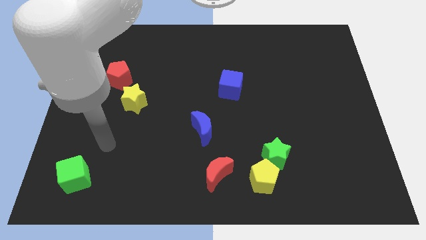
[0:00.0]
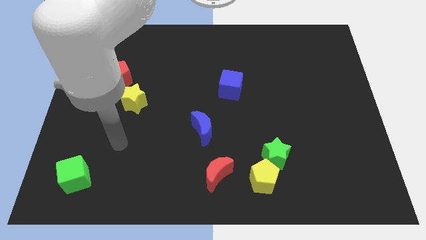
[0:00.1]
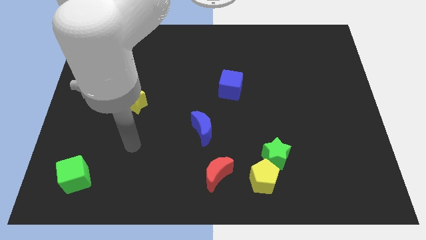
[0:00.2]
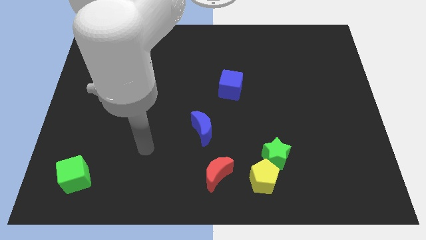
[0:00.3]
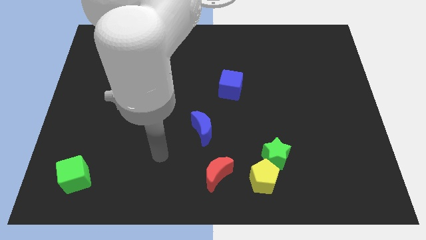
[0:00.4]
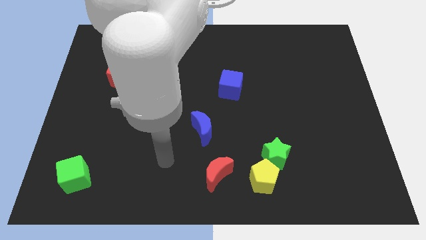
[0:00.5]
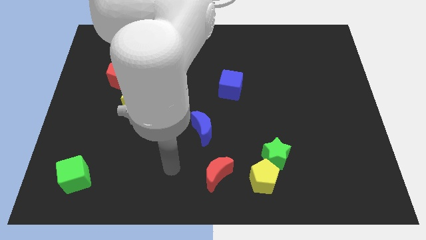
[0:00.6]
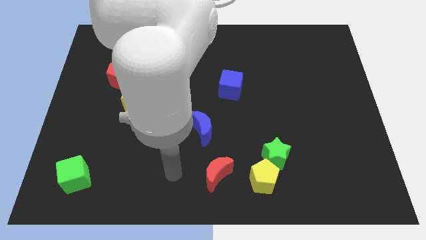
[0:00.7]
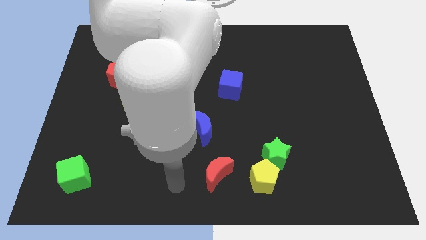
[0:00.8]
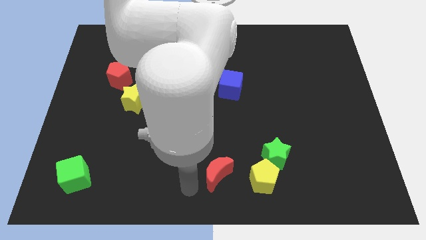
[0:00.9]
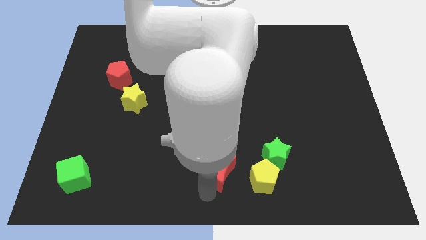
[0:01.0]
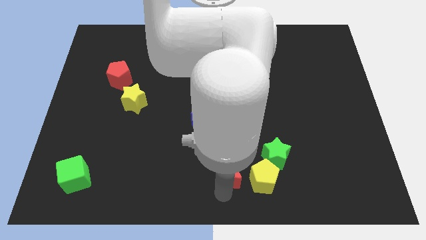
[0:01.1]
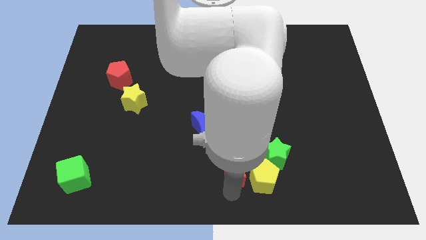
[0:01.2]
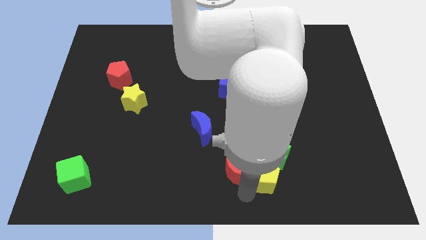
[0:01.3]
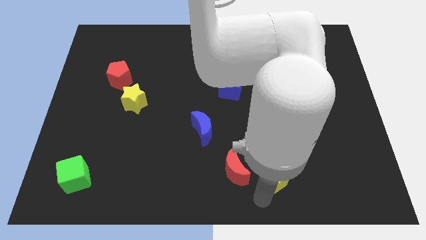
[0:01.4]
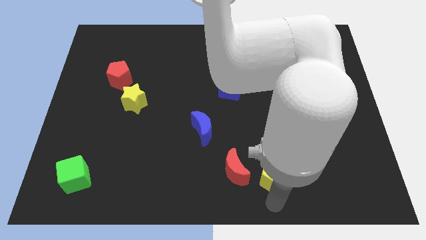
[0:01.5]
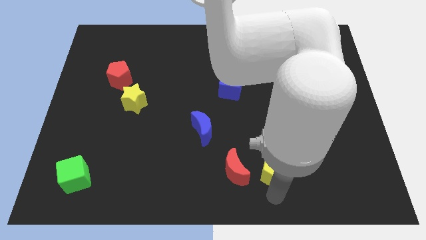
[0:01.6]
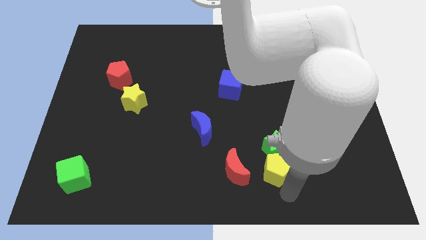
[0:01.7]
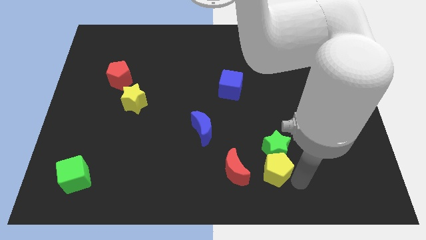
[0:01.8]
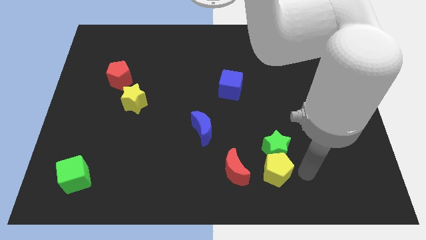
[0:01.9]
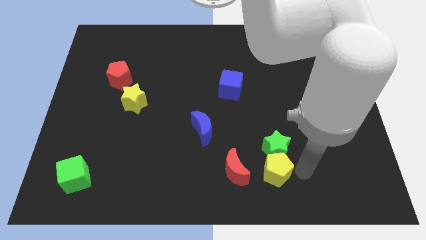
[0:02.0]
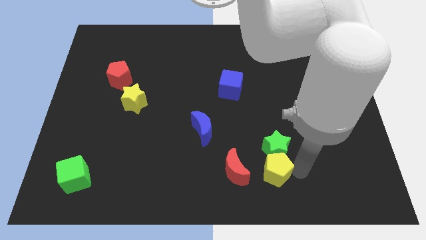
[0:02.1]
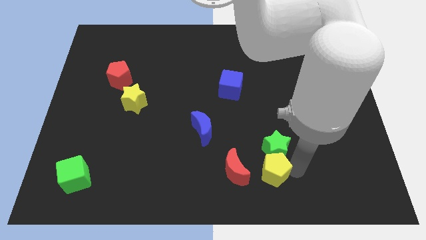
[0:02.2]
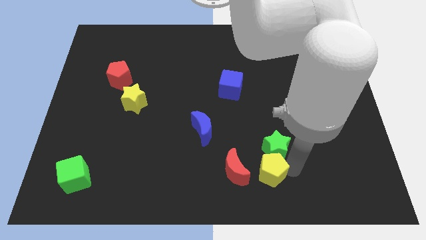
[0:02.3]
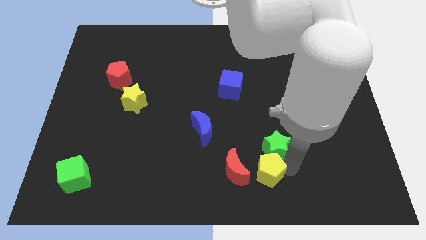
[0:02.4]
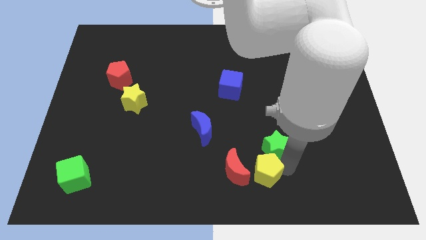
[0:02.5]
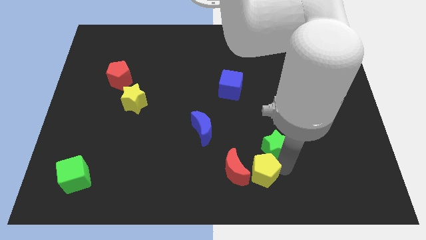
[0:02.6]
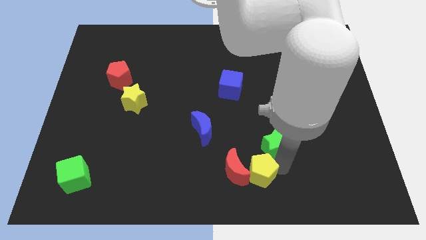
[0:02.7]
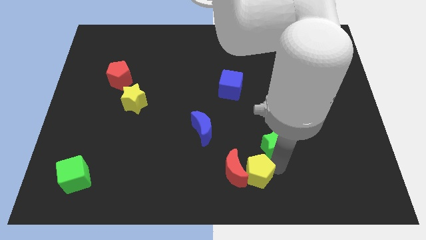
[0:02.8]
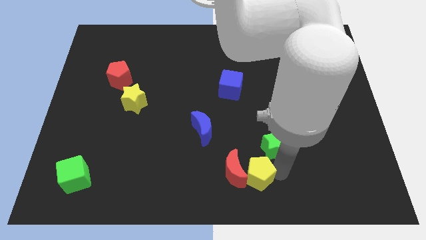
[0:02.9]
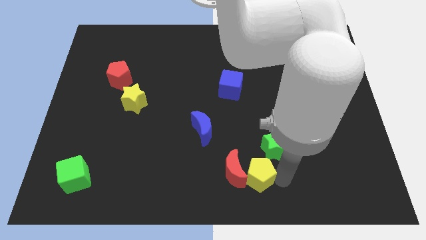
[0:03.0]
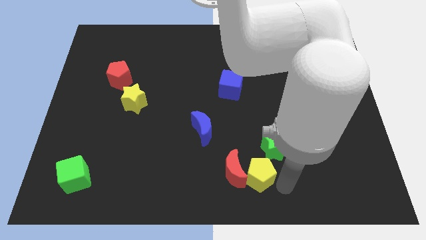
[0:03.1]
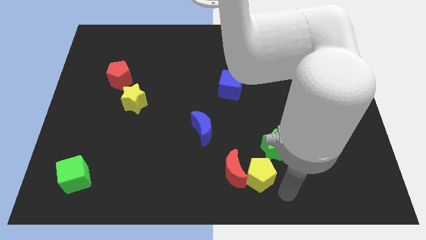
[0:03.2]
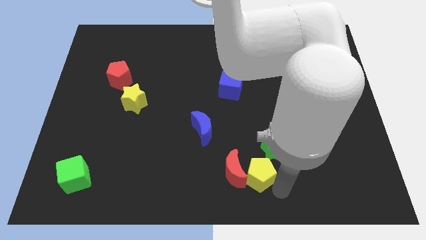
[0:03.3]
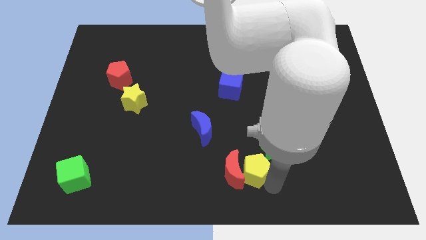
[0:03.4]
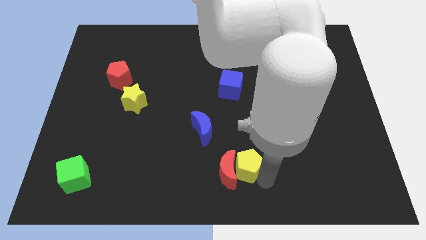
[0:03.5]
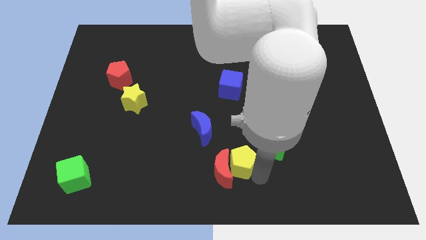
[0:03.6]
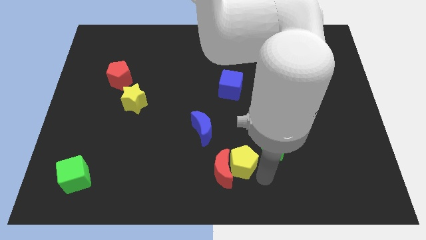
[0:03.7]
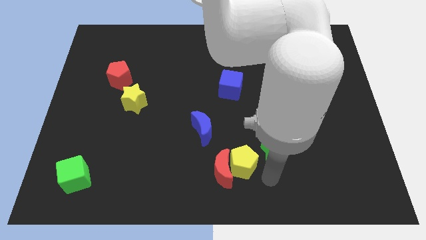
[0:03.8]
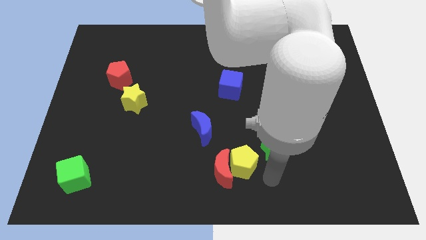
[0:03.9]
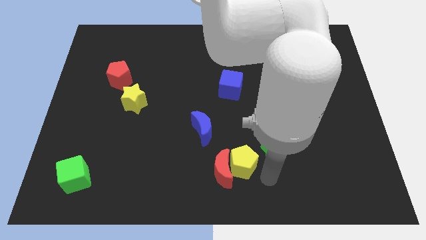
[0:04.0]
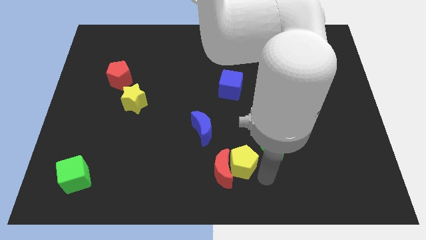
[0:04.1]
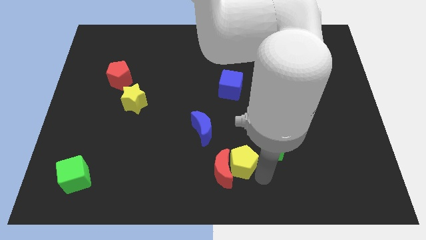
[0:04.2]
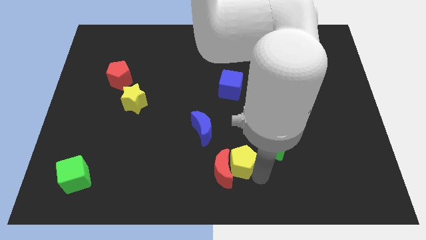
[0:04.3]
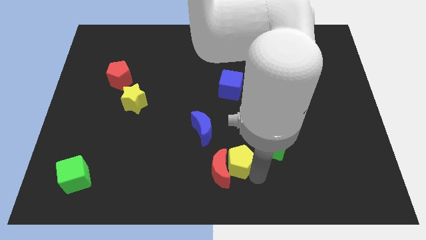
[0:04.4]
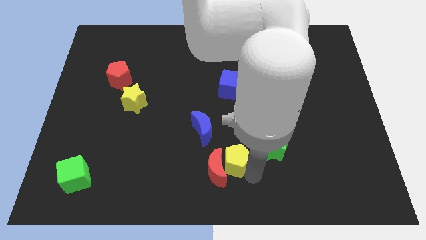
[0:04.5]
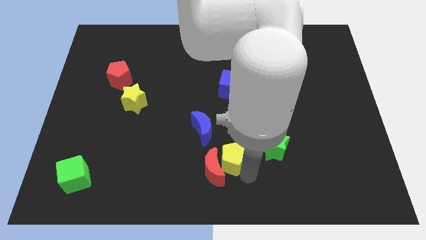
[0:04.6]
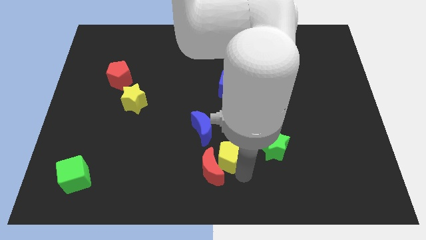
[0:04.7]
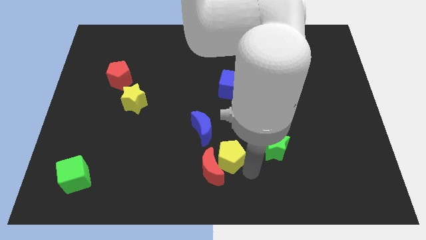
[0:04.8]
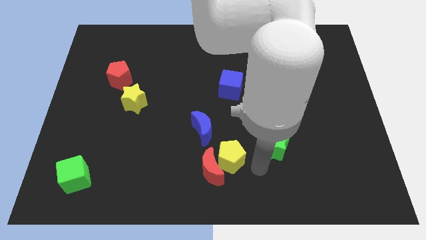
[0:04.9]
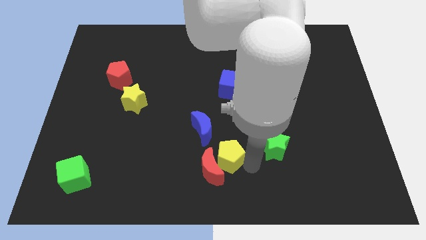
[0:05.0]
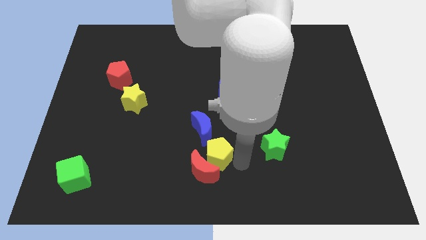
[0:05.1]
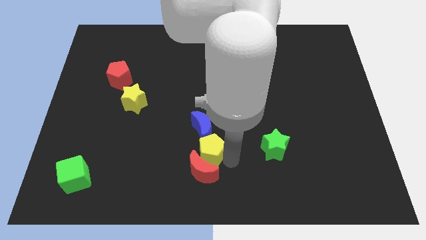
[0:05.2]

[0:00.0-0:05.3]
slide the yellow pentagon to the top left side of the red moon

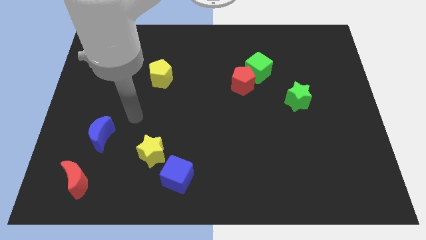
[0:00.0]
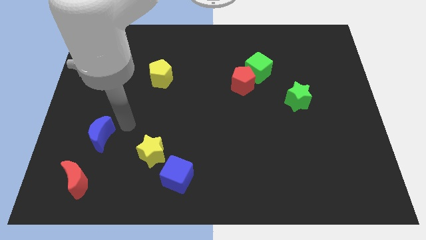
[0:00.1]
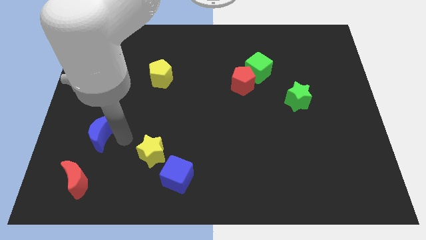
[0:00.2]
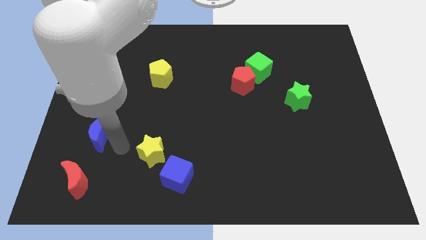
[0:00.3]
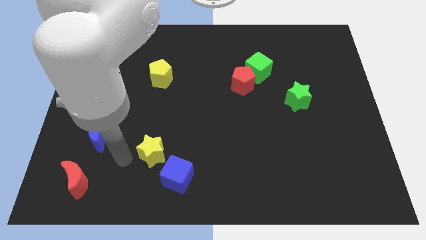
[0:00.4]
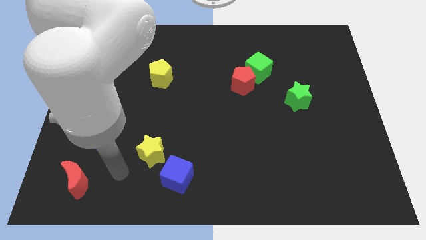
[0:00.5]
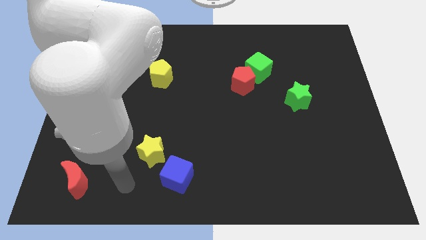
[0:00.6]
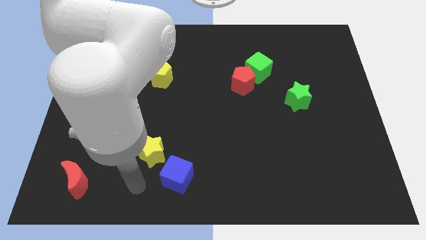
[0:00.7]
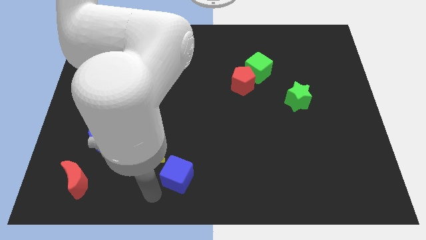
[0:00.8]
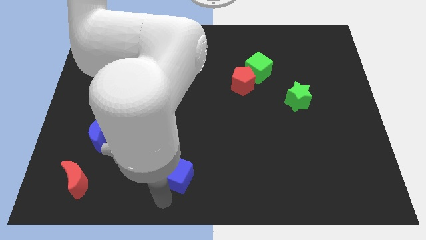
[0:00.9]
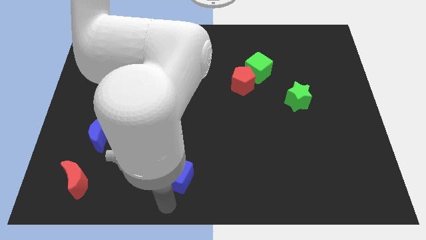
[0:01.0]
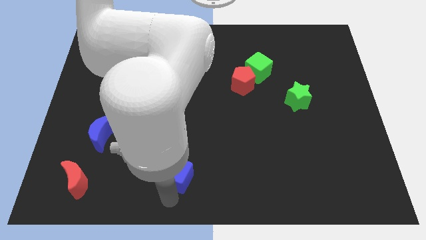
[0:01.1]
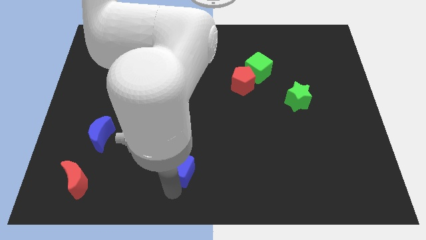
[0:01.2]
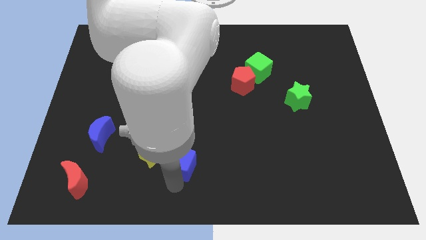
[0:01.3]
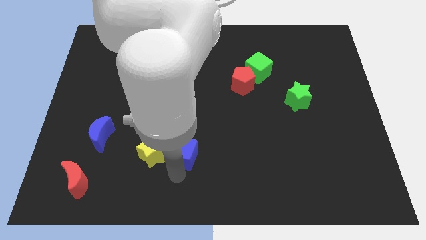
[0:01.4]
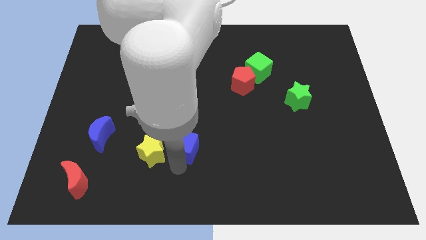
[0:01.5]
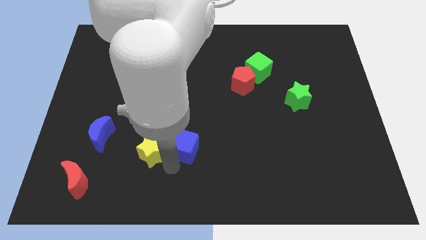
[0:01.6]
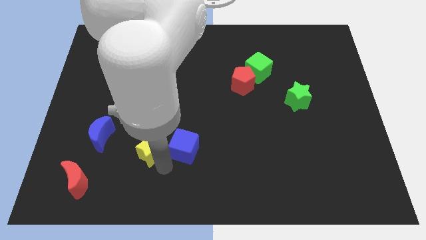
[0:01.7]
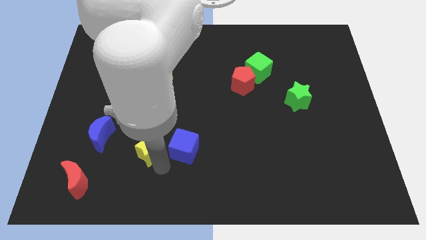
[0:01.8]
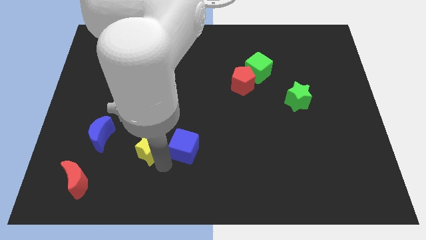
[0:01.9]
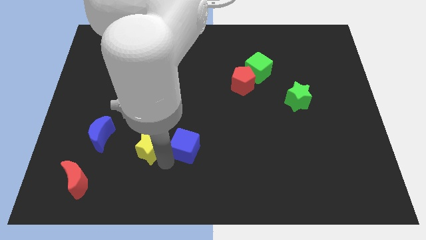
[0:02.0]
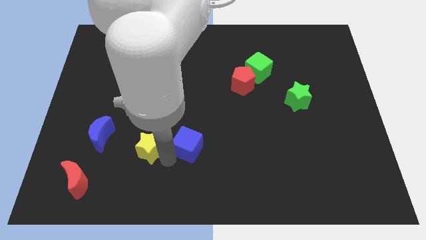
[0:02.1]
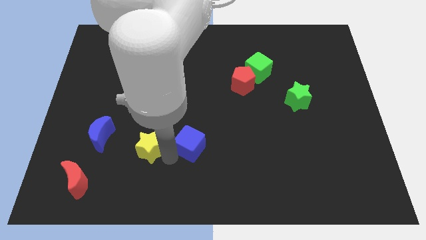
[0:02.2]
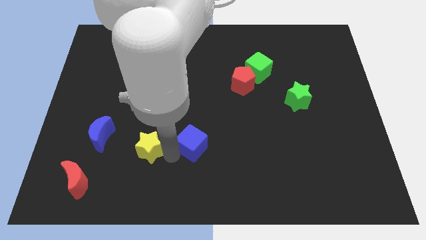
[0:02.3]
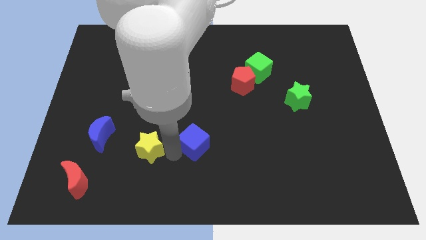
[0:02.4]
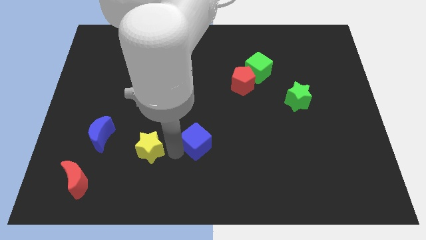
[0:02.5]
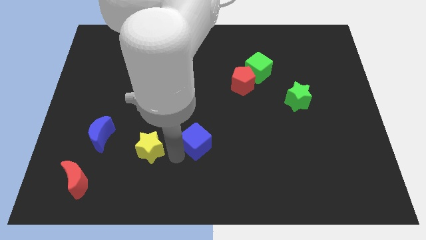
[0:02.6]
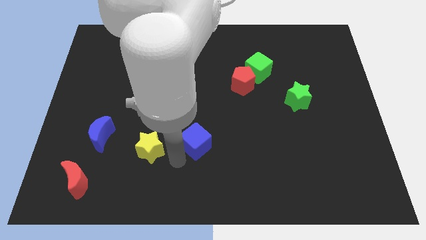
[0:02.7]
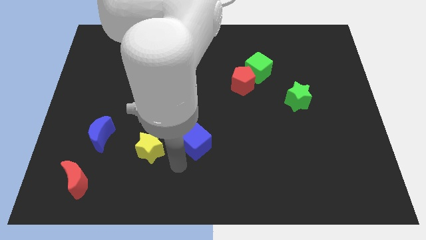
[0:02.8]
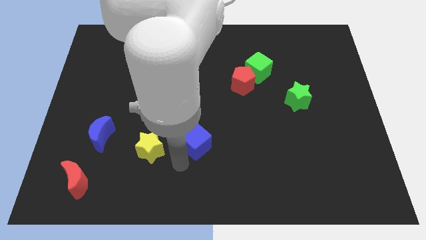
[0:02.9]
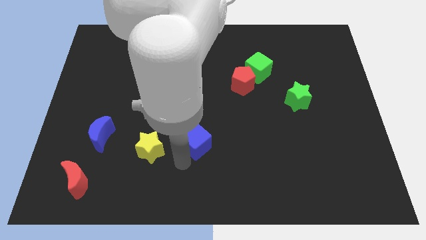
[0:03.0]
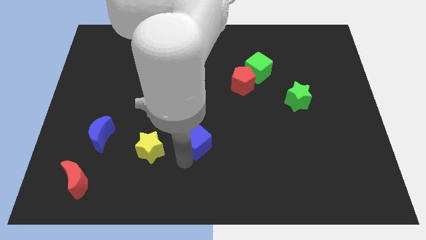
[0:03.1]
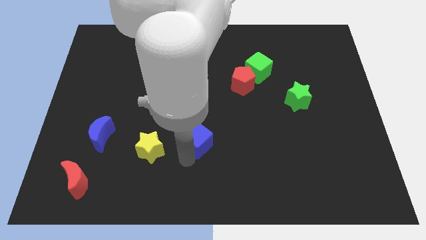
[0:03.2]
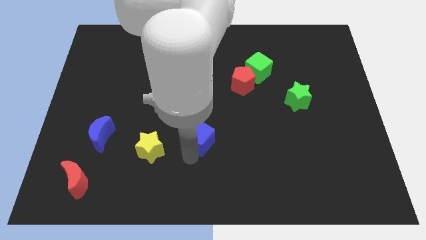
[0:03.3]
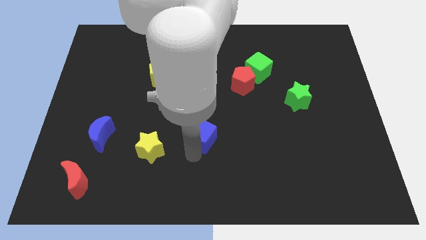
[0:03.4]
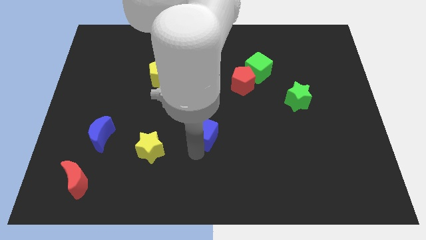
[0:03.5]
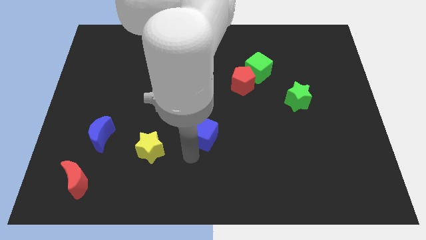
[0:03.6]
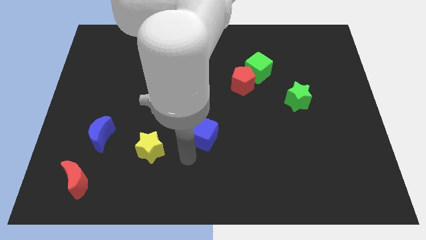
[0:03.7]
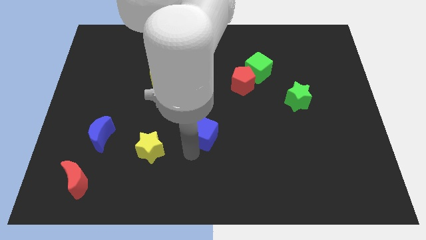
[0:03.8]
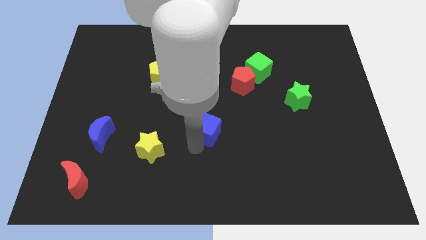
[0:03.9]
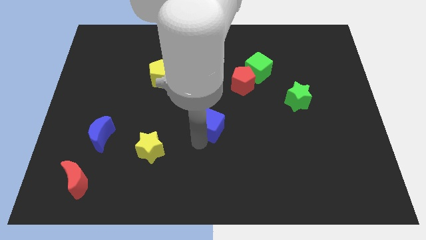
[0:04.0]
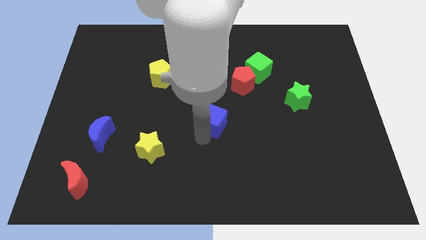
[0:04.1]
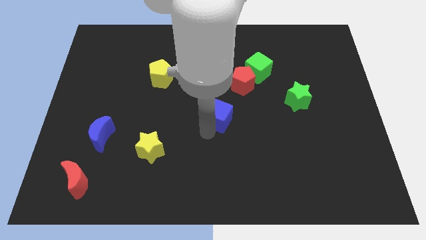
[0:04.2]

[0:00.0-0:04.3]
push the blue cube diagonally down and to the left of the red pentagon
